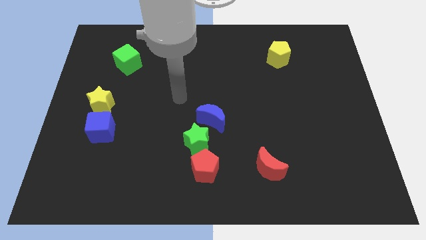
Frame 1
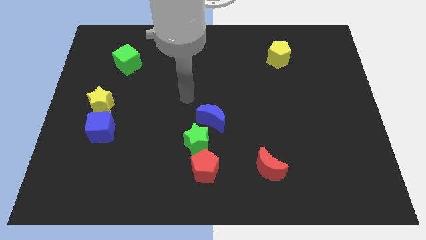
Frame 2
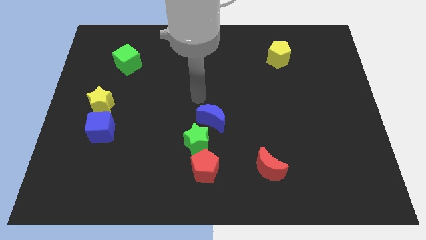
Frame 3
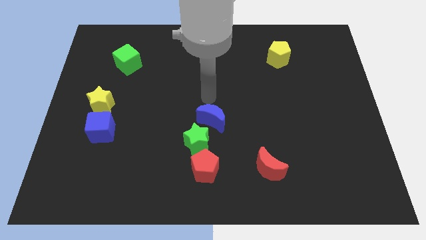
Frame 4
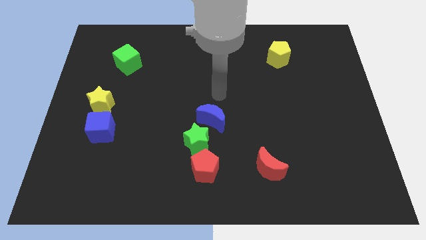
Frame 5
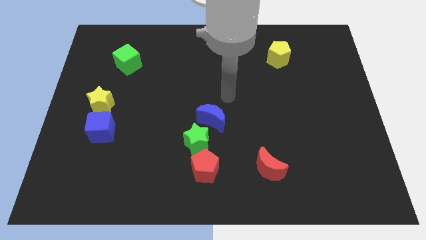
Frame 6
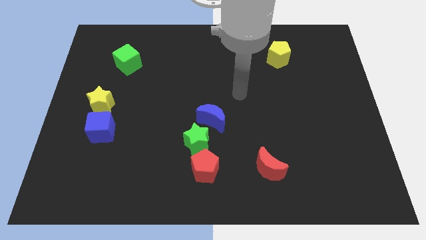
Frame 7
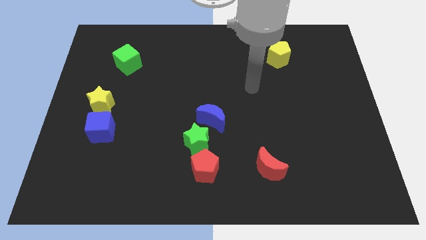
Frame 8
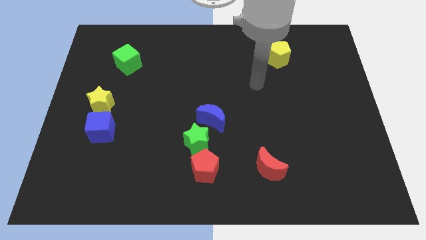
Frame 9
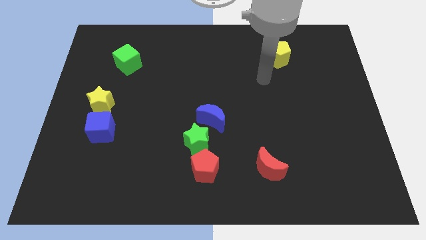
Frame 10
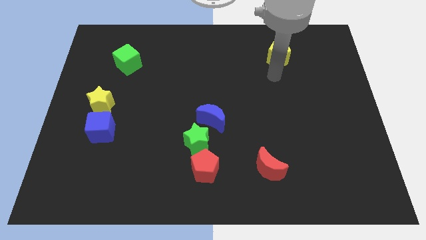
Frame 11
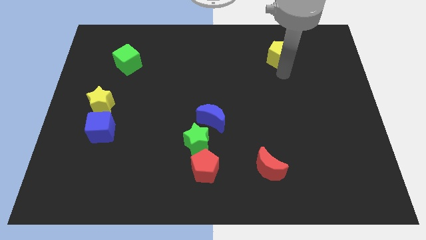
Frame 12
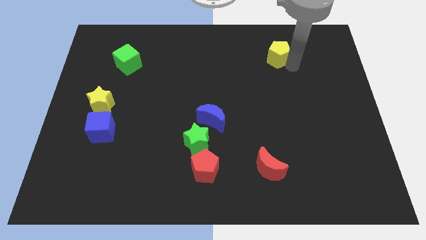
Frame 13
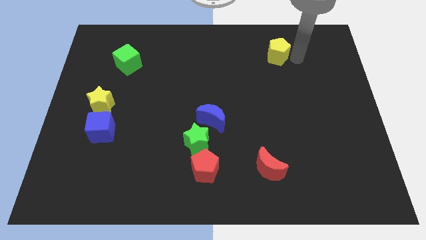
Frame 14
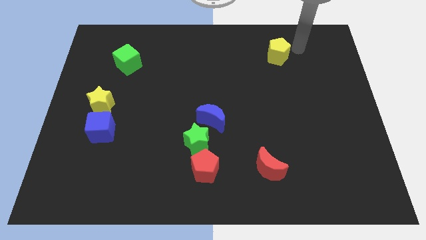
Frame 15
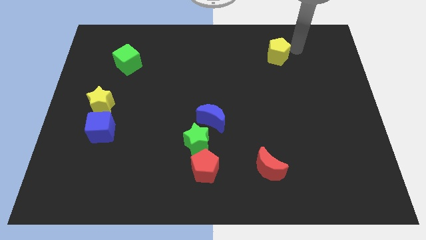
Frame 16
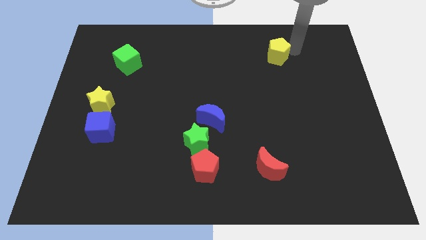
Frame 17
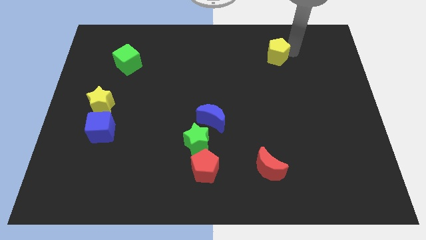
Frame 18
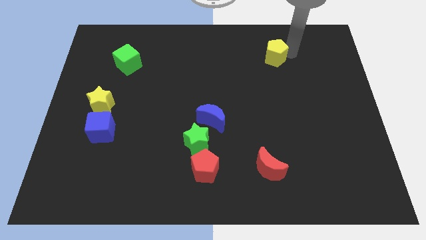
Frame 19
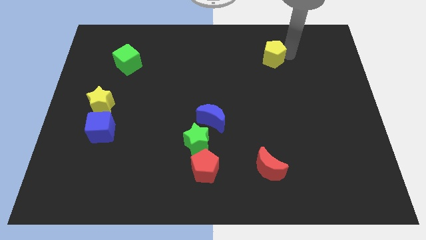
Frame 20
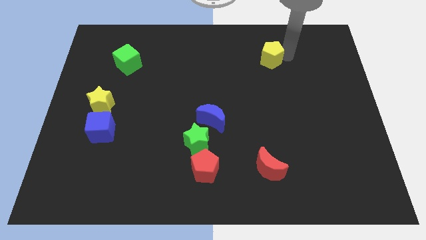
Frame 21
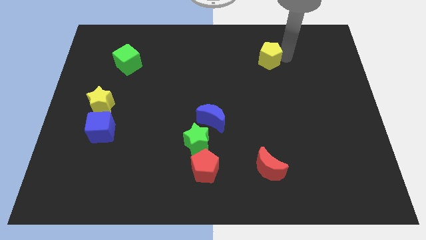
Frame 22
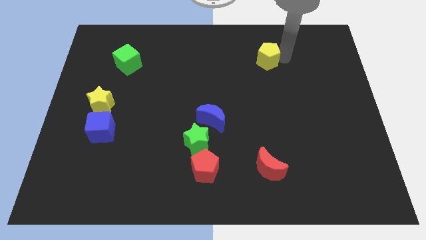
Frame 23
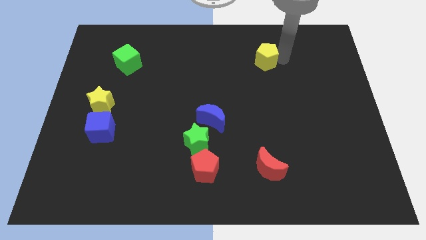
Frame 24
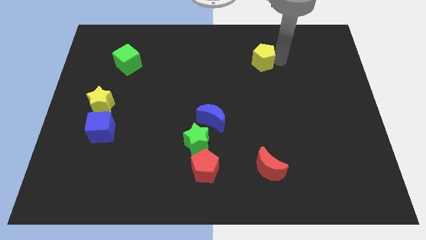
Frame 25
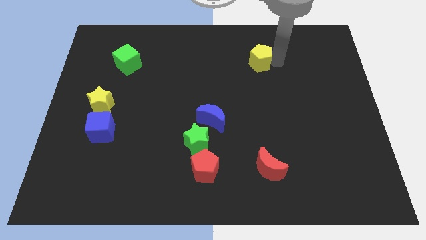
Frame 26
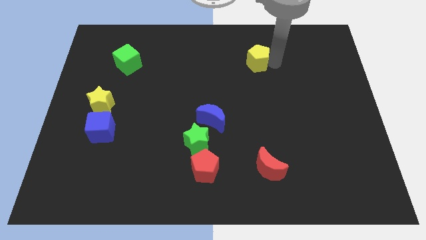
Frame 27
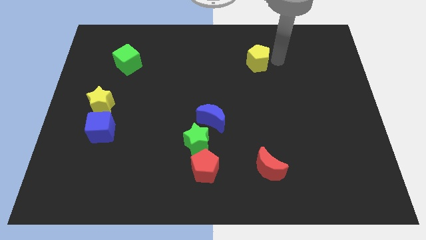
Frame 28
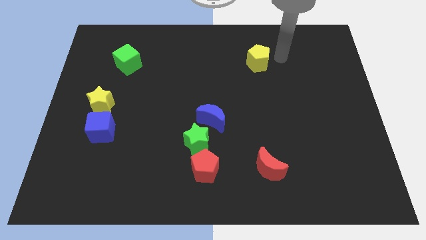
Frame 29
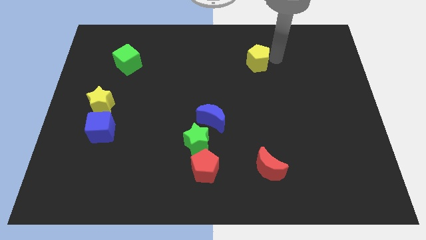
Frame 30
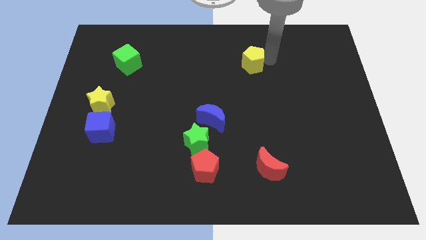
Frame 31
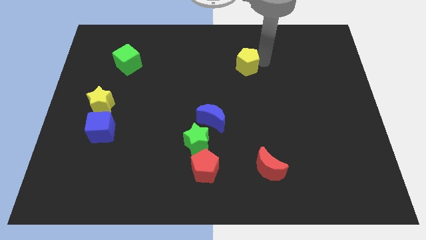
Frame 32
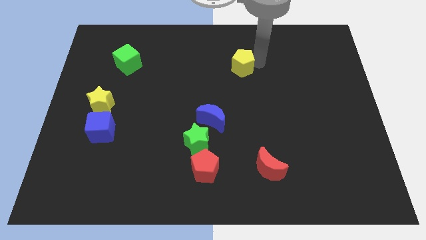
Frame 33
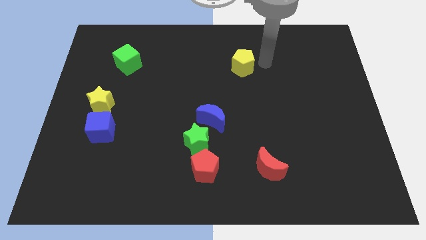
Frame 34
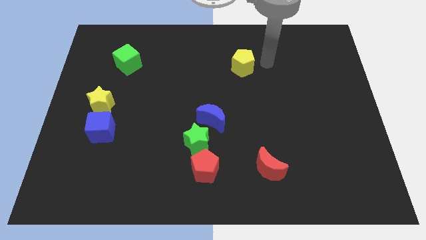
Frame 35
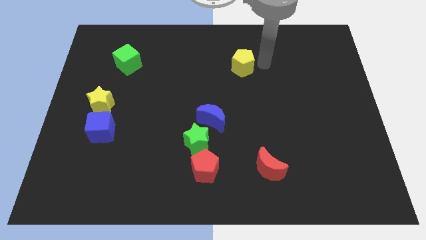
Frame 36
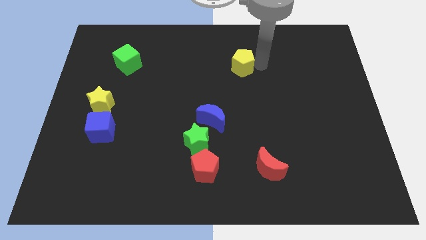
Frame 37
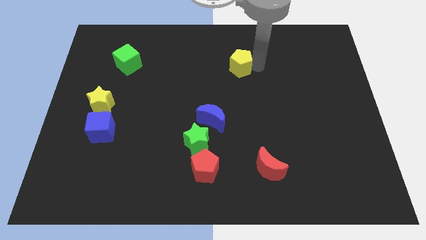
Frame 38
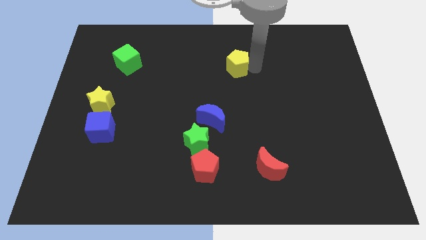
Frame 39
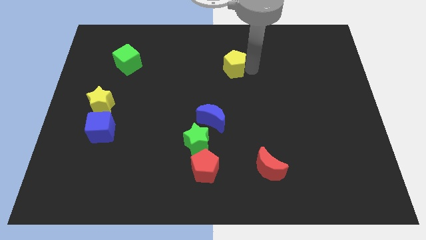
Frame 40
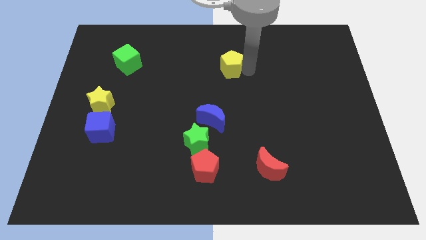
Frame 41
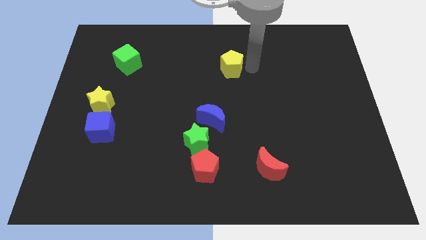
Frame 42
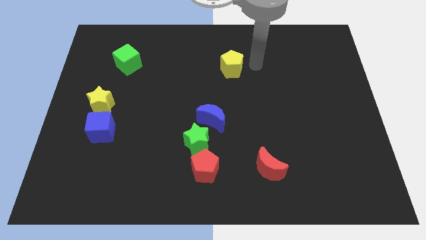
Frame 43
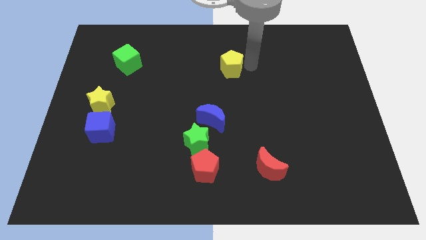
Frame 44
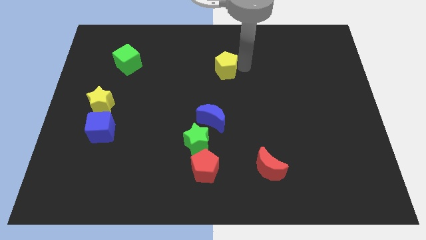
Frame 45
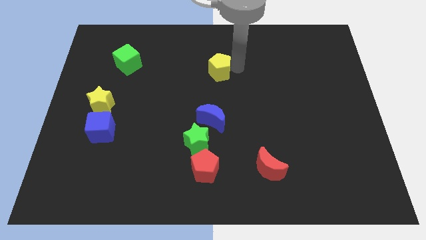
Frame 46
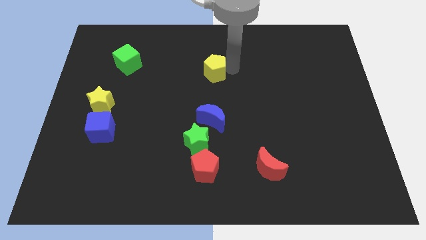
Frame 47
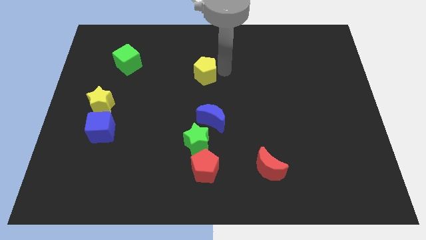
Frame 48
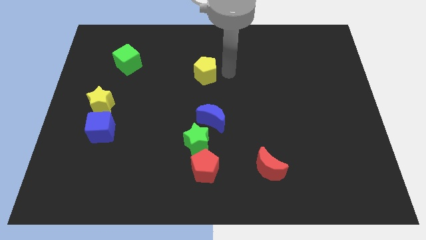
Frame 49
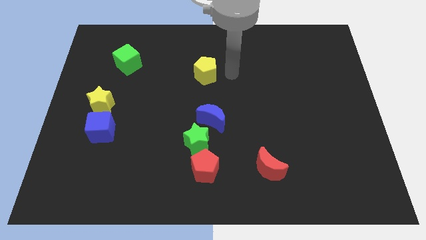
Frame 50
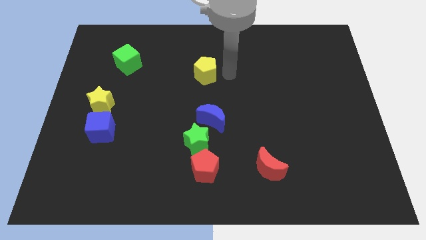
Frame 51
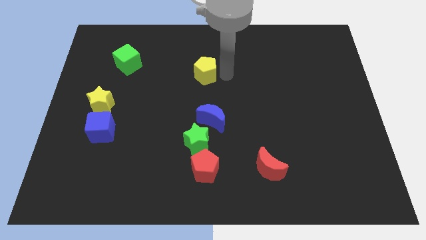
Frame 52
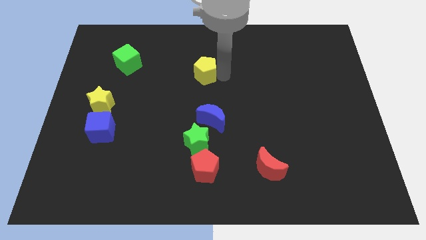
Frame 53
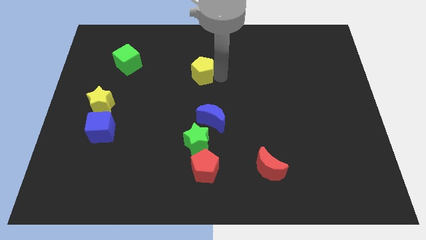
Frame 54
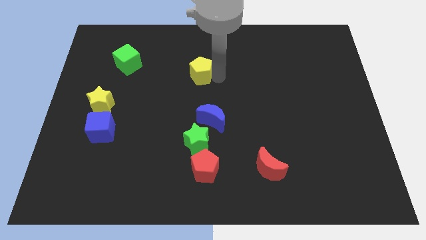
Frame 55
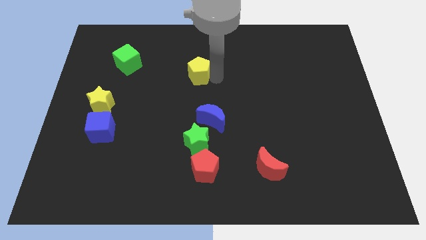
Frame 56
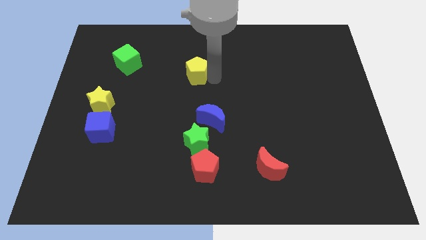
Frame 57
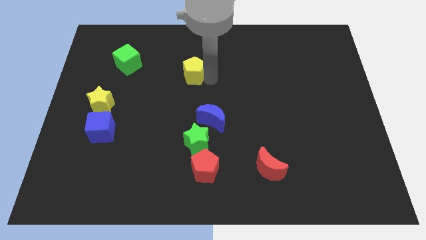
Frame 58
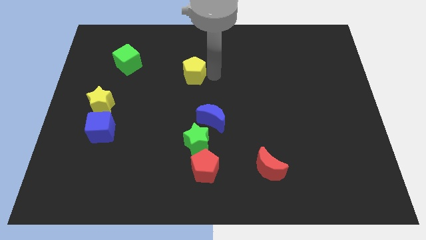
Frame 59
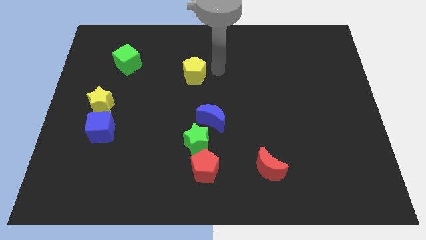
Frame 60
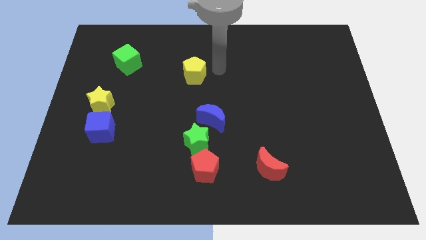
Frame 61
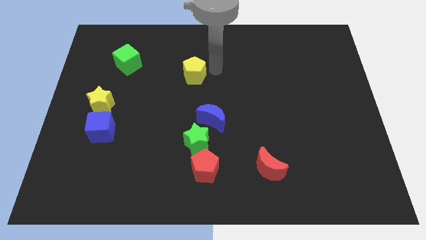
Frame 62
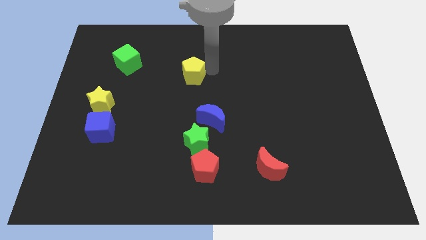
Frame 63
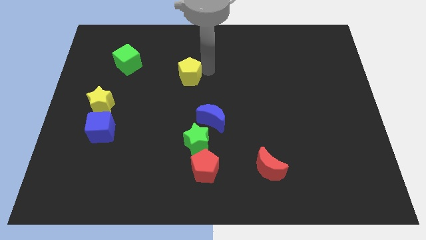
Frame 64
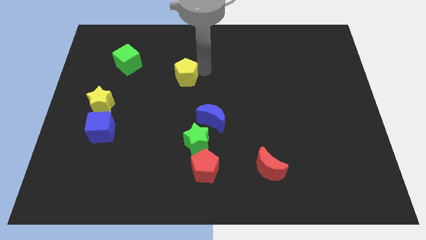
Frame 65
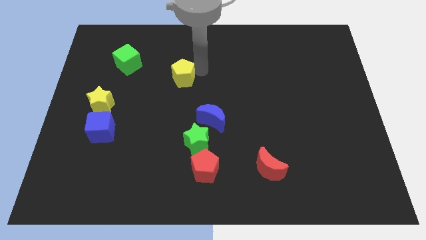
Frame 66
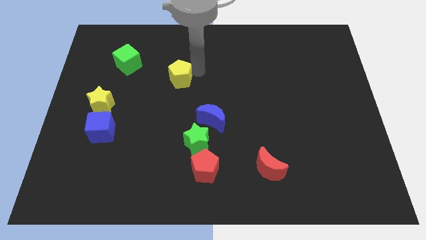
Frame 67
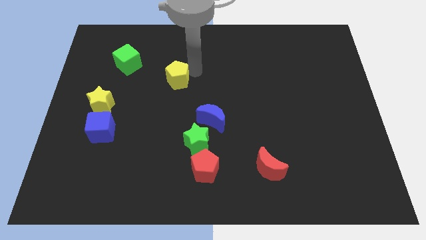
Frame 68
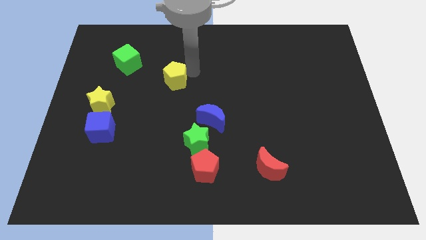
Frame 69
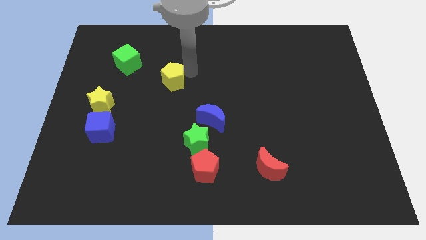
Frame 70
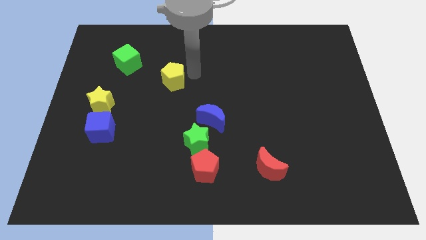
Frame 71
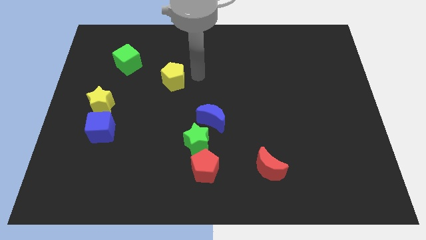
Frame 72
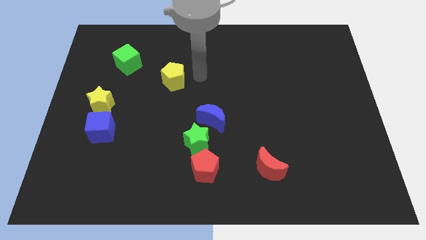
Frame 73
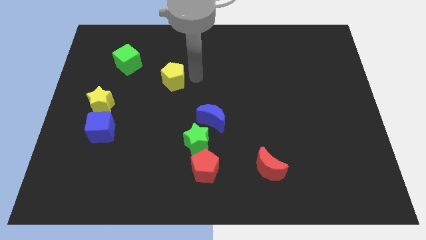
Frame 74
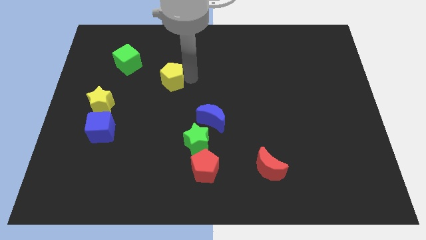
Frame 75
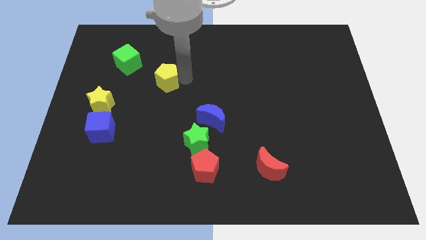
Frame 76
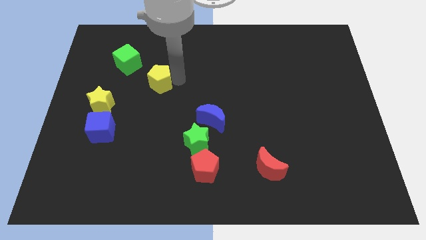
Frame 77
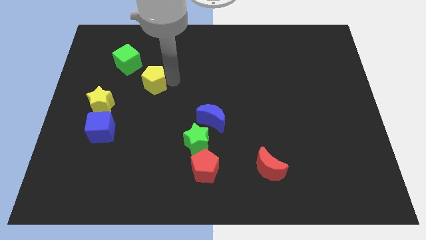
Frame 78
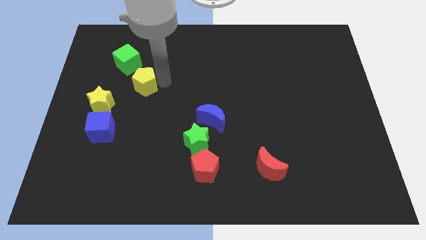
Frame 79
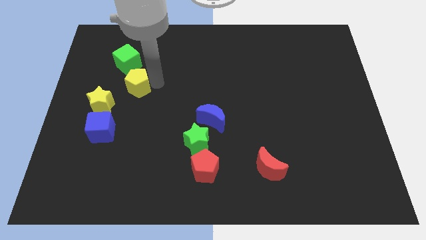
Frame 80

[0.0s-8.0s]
put the yellow pentagon to the bottom of the green cube
